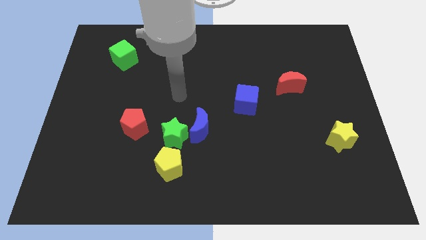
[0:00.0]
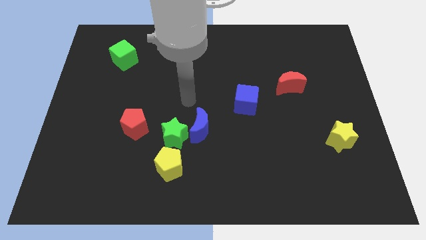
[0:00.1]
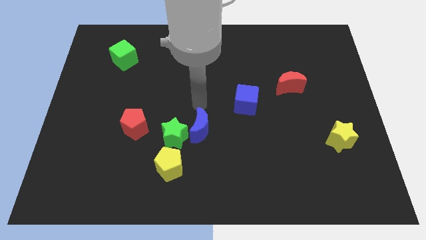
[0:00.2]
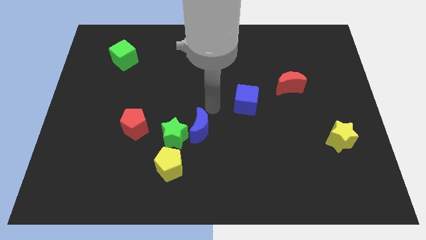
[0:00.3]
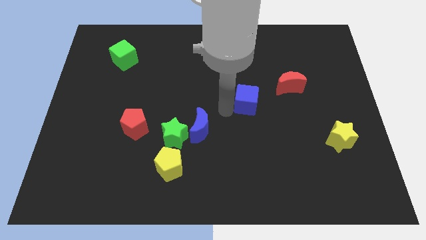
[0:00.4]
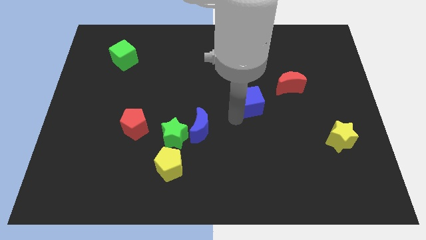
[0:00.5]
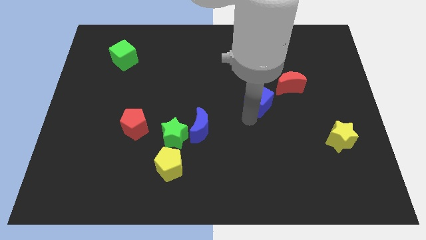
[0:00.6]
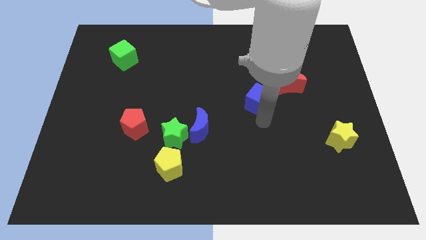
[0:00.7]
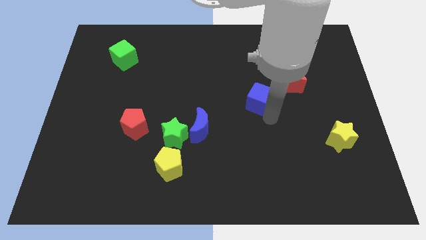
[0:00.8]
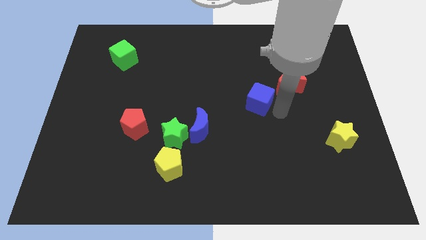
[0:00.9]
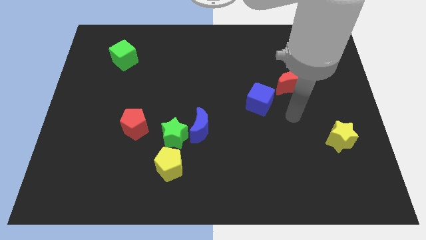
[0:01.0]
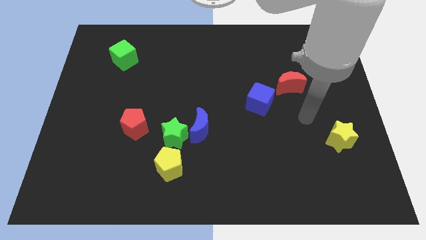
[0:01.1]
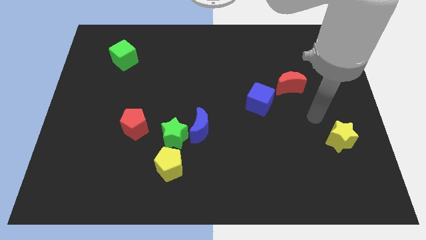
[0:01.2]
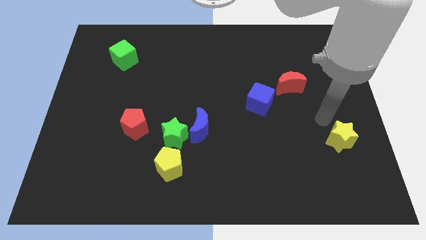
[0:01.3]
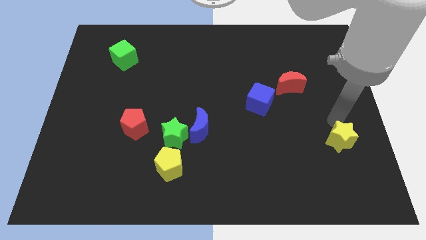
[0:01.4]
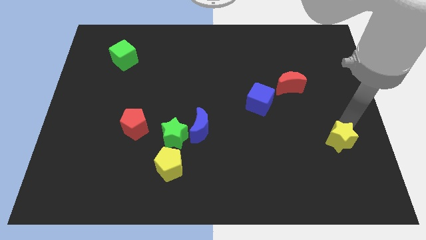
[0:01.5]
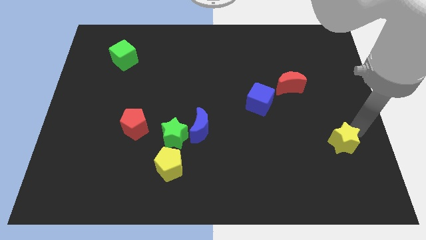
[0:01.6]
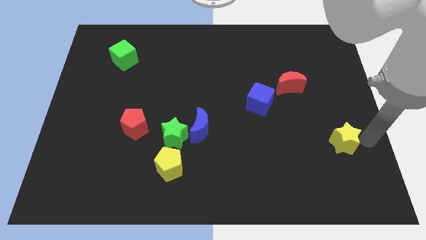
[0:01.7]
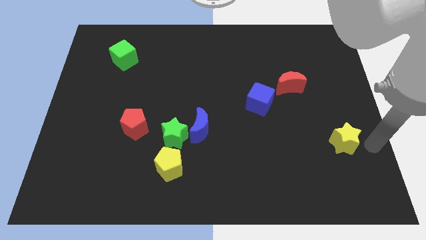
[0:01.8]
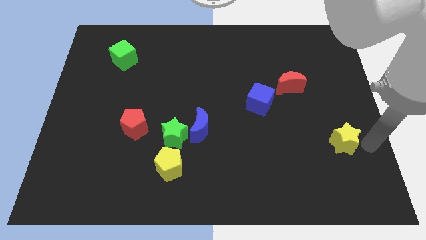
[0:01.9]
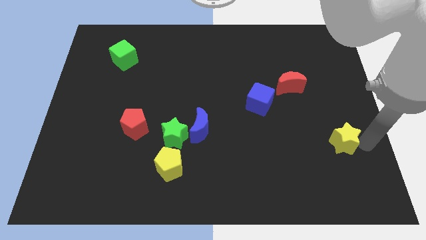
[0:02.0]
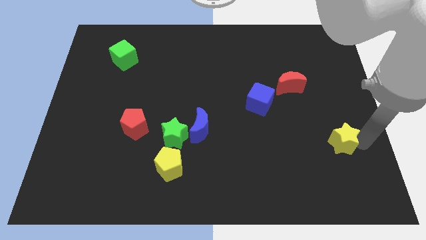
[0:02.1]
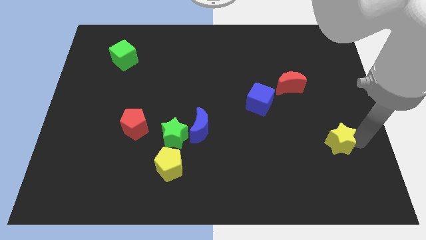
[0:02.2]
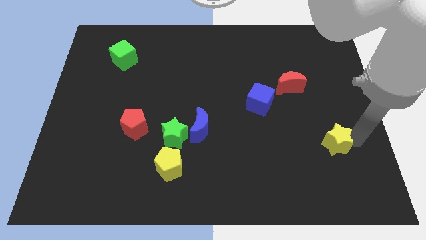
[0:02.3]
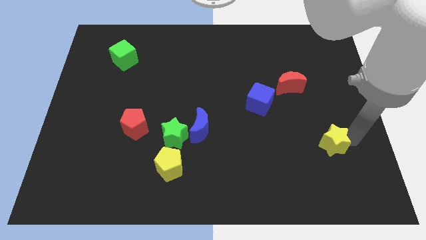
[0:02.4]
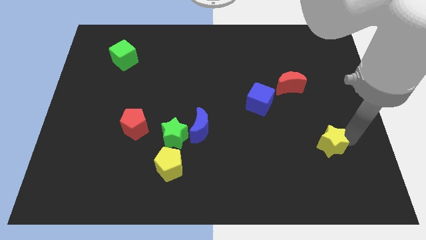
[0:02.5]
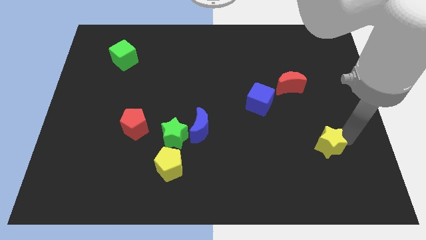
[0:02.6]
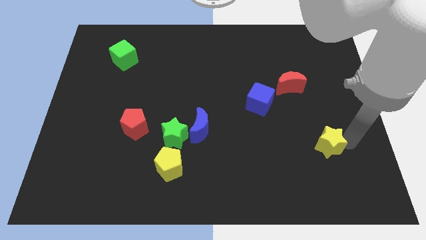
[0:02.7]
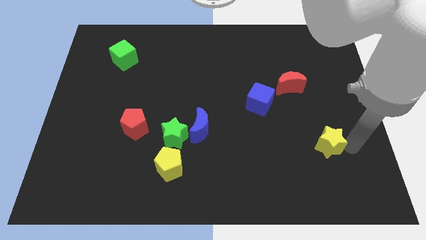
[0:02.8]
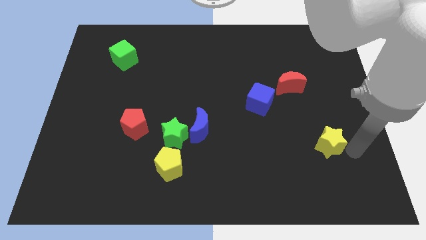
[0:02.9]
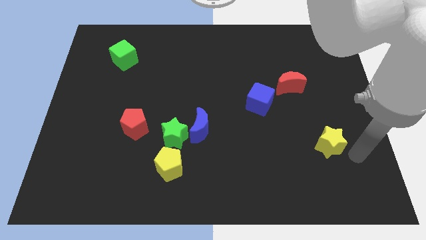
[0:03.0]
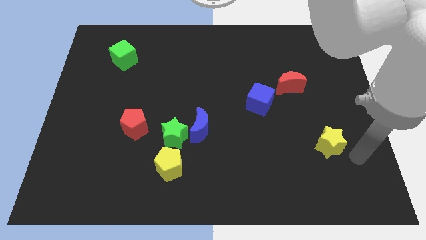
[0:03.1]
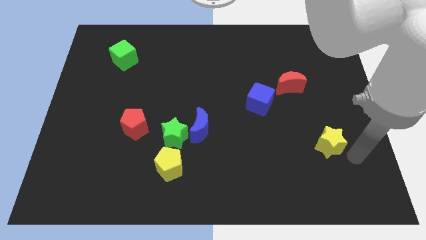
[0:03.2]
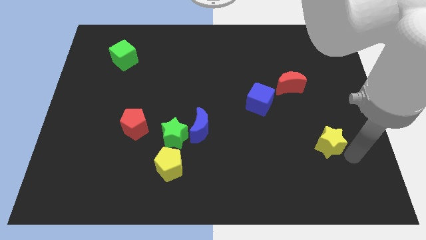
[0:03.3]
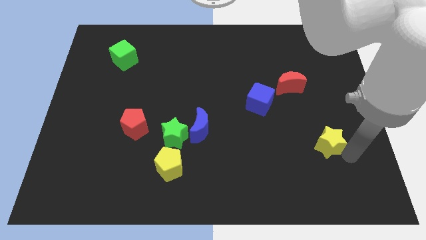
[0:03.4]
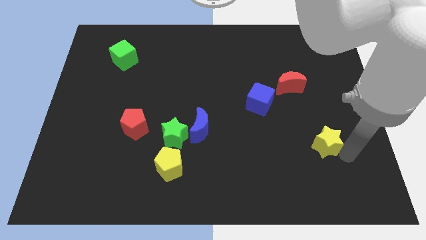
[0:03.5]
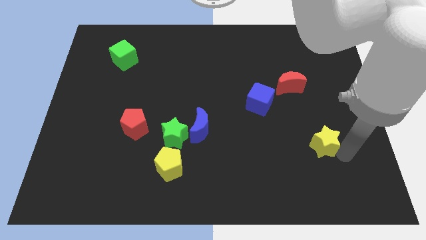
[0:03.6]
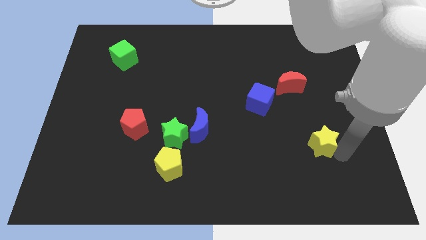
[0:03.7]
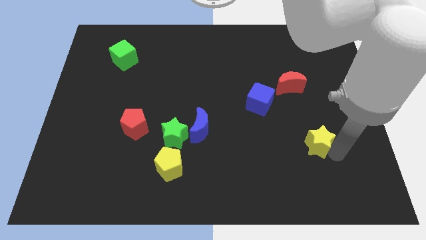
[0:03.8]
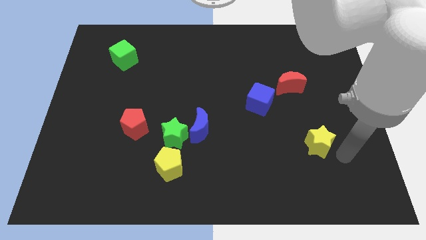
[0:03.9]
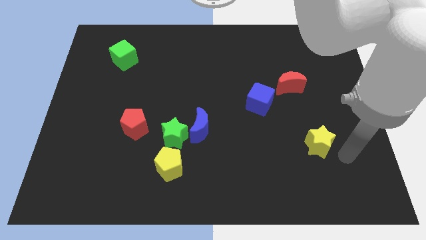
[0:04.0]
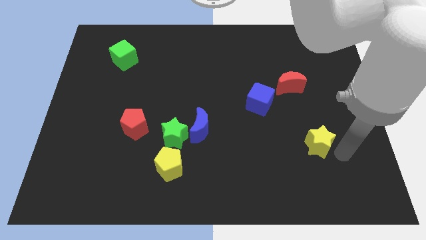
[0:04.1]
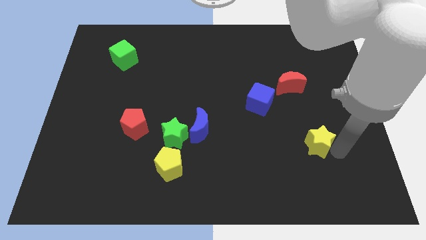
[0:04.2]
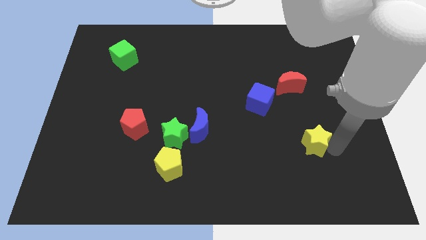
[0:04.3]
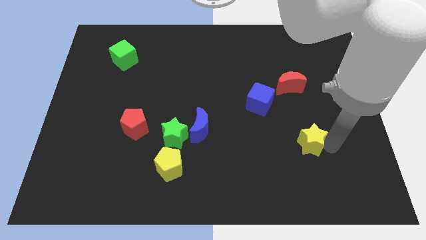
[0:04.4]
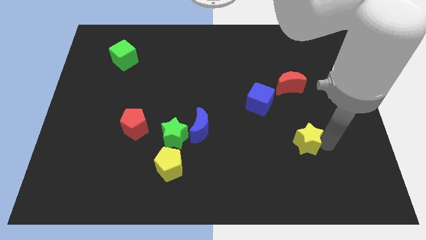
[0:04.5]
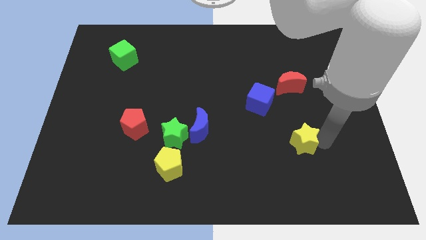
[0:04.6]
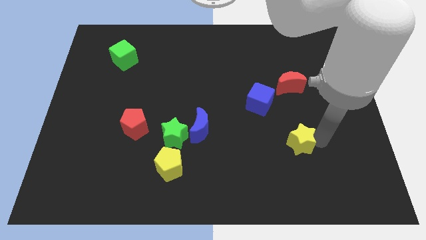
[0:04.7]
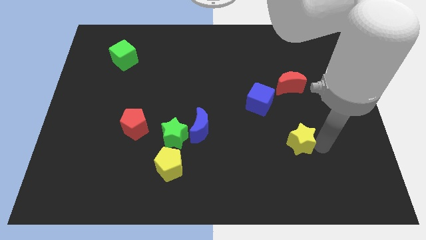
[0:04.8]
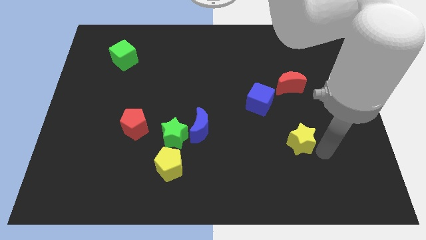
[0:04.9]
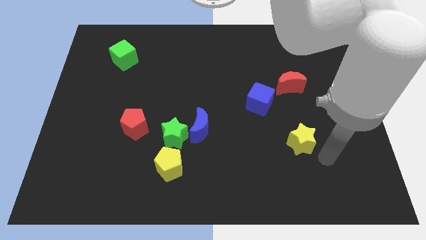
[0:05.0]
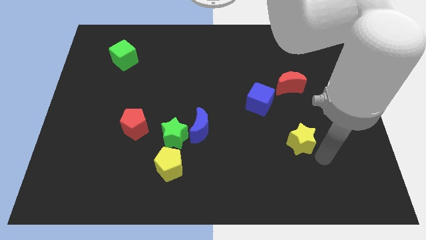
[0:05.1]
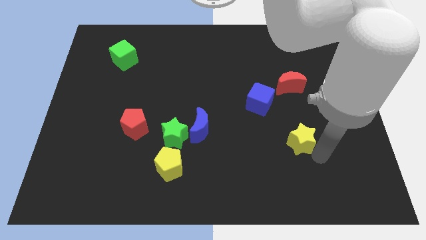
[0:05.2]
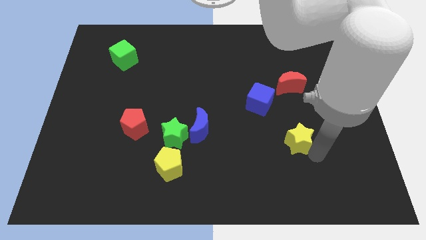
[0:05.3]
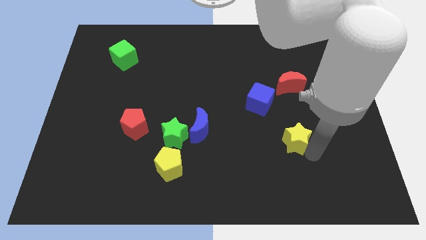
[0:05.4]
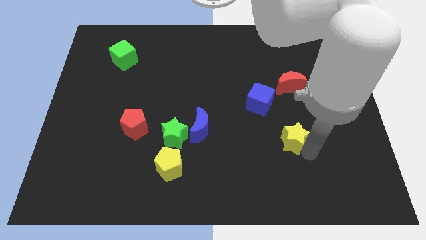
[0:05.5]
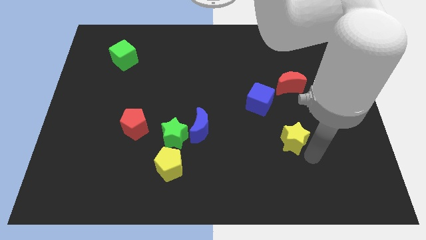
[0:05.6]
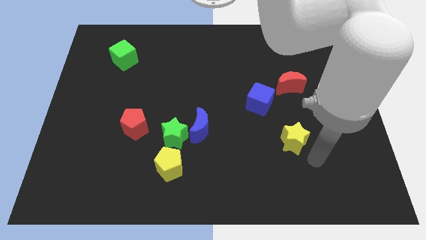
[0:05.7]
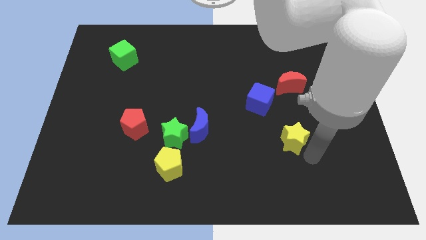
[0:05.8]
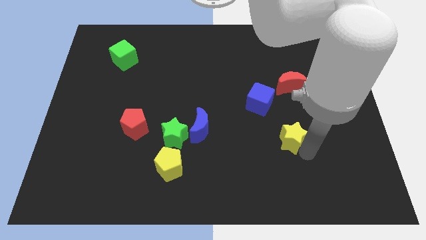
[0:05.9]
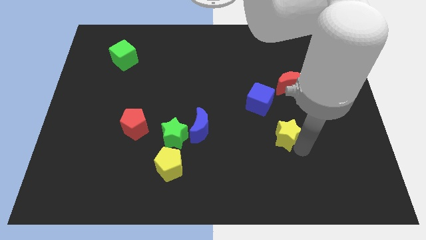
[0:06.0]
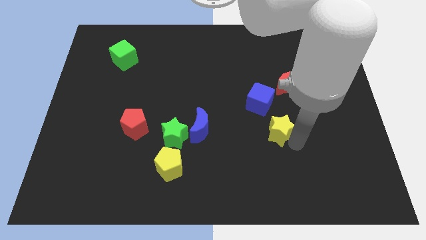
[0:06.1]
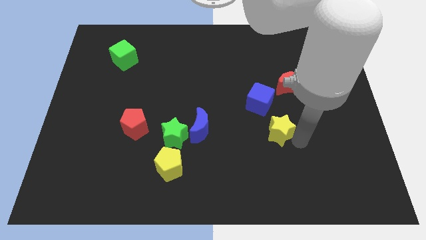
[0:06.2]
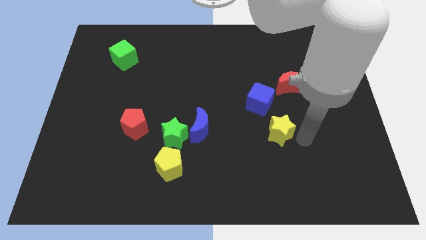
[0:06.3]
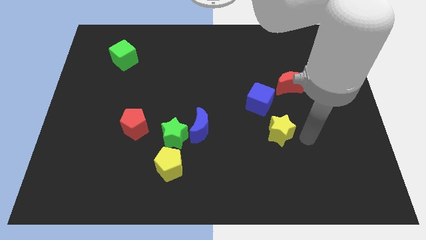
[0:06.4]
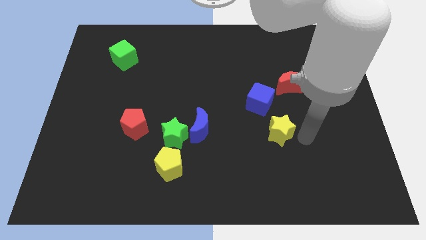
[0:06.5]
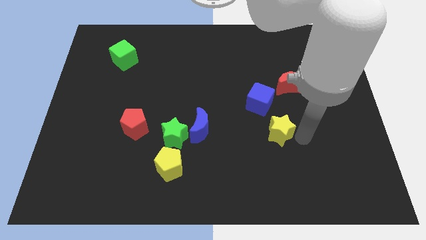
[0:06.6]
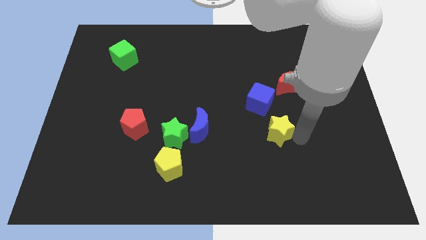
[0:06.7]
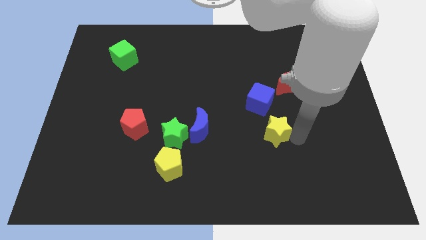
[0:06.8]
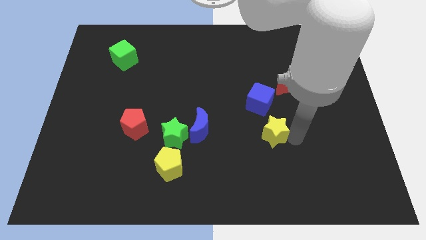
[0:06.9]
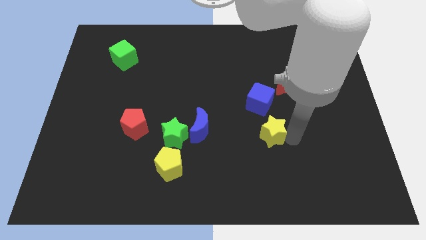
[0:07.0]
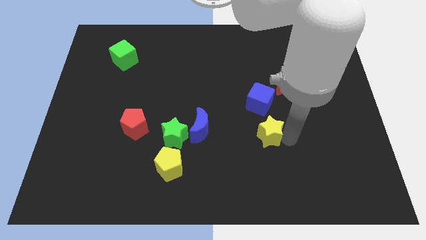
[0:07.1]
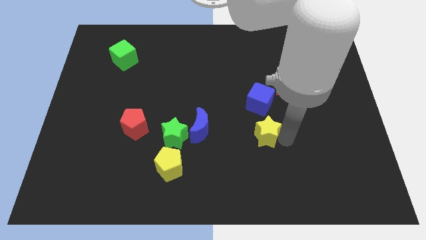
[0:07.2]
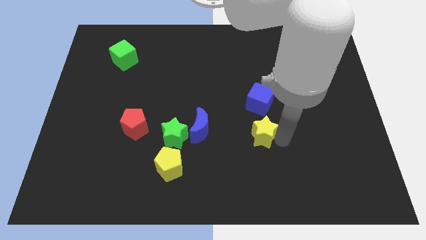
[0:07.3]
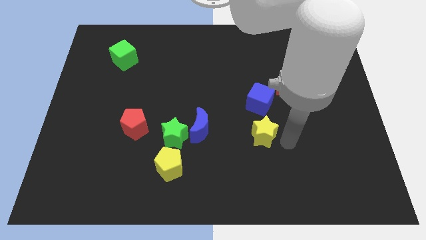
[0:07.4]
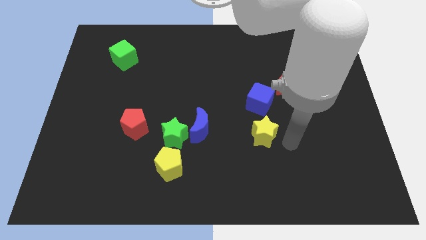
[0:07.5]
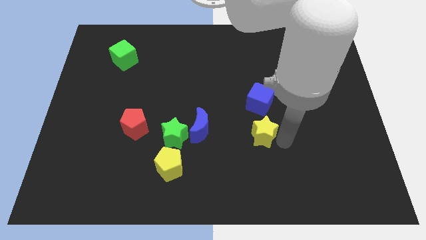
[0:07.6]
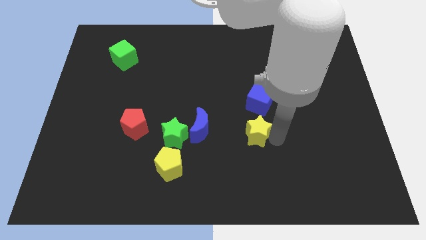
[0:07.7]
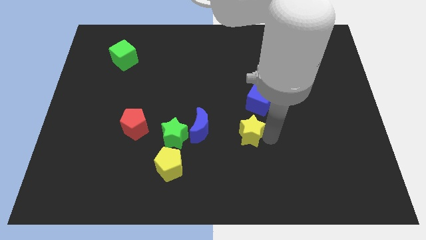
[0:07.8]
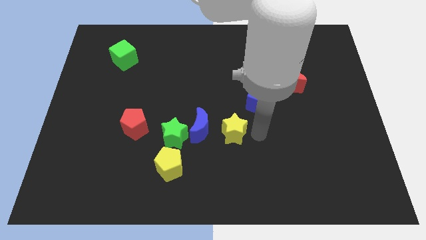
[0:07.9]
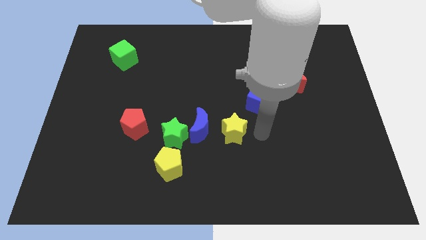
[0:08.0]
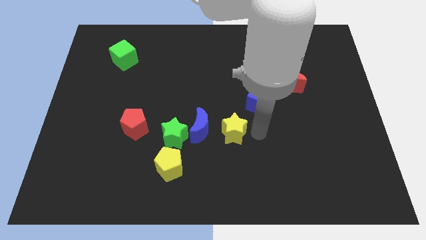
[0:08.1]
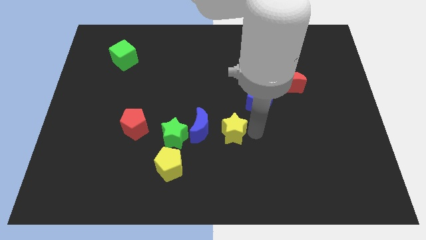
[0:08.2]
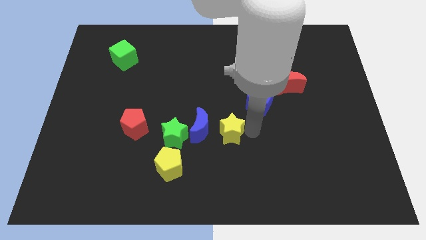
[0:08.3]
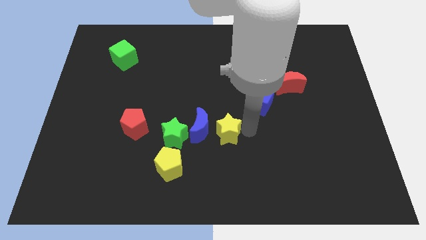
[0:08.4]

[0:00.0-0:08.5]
slide the yellow star to the blue moon
